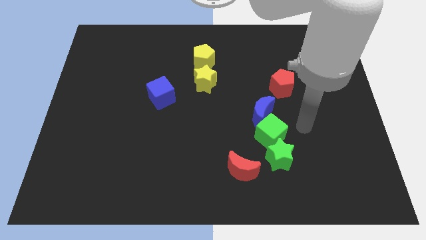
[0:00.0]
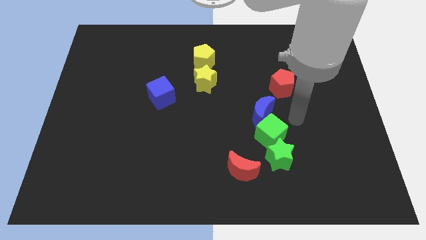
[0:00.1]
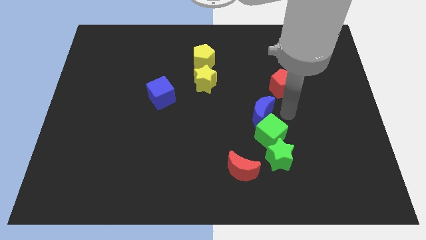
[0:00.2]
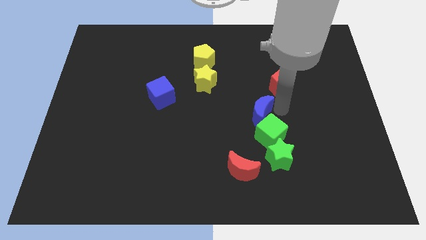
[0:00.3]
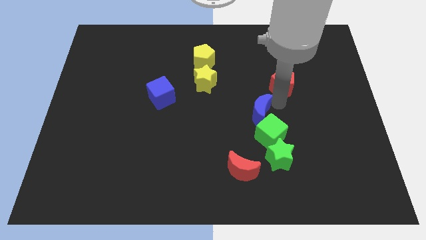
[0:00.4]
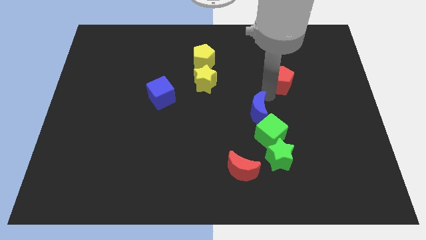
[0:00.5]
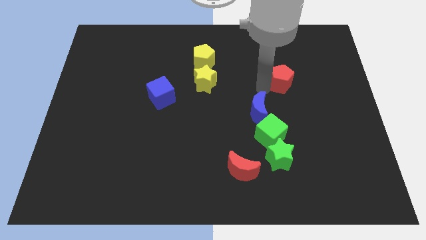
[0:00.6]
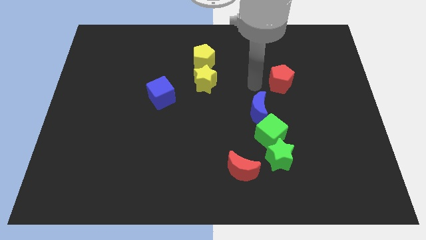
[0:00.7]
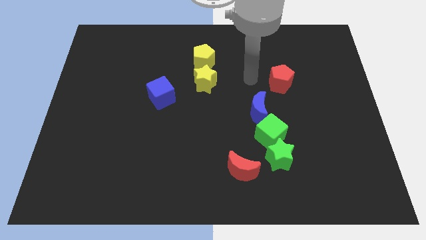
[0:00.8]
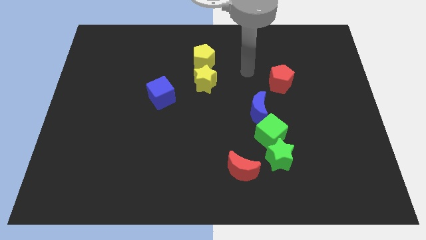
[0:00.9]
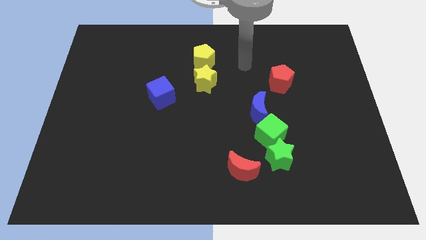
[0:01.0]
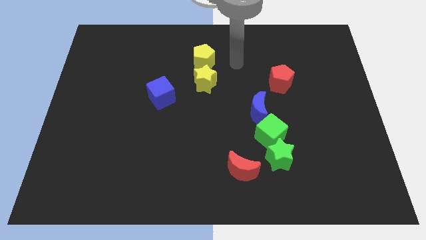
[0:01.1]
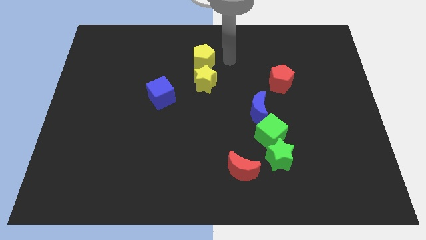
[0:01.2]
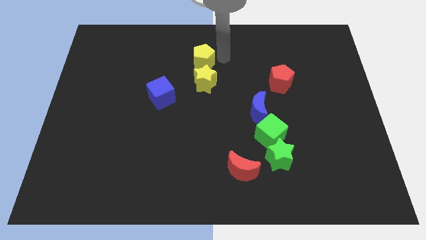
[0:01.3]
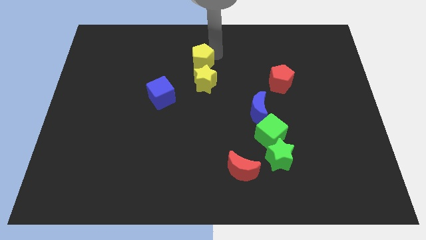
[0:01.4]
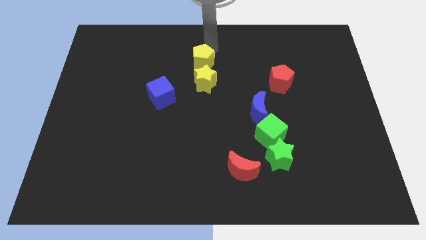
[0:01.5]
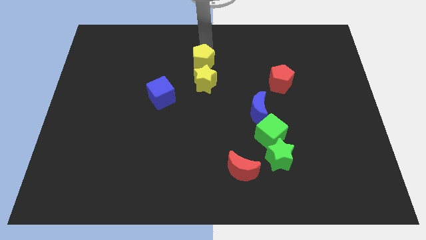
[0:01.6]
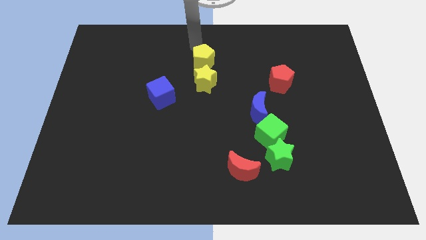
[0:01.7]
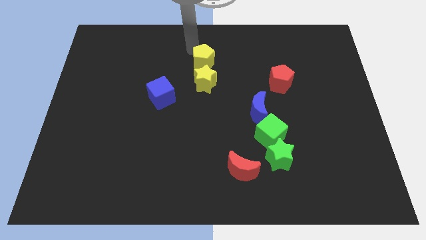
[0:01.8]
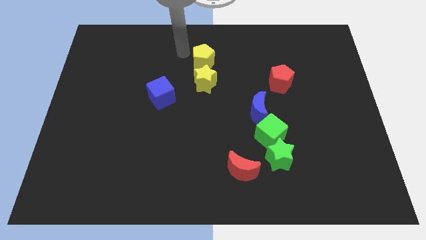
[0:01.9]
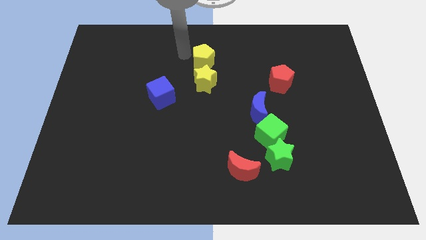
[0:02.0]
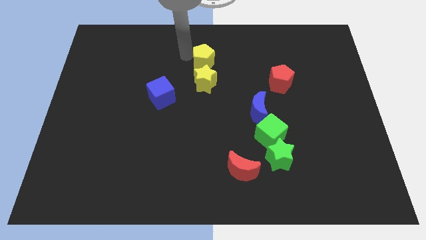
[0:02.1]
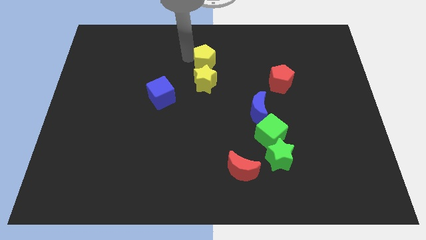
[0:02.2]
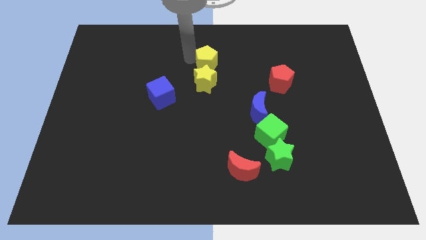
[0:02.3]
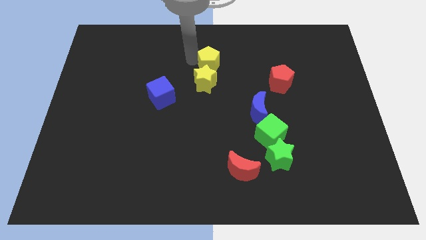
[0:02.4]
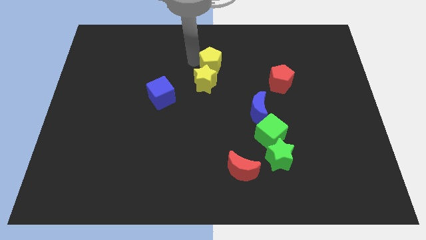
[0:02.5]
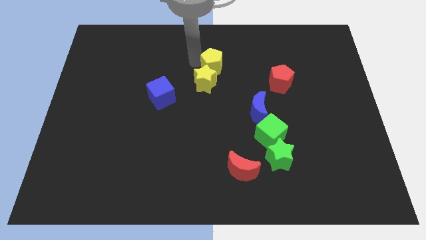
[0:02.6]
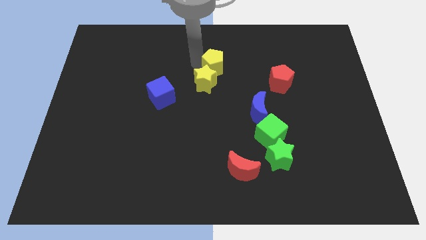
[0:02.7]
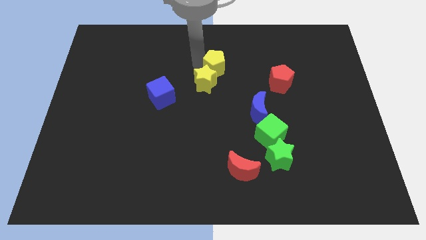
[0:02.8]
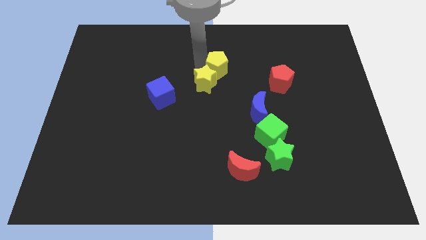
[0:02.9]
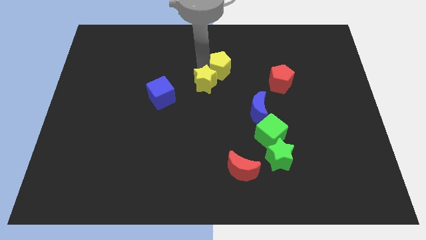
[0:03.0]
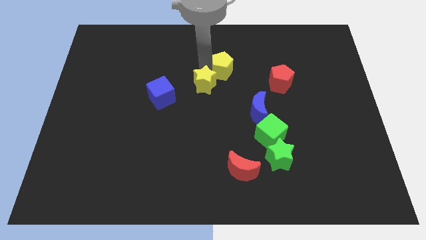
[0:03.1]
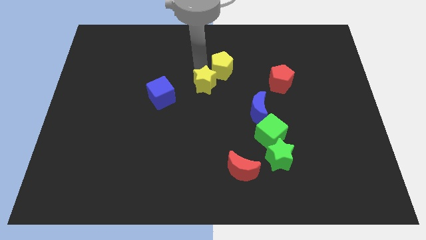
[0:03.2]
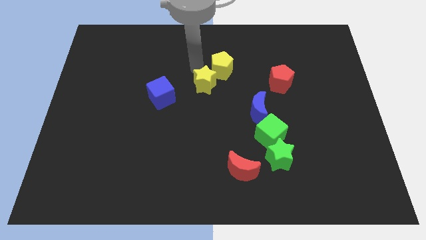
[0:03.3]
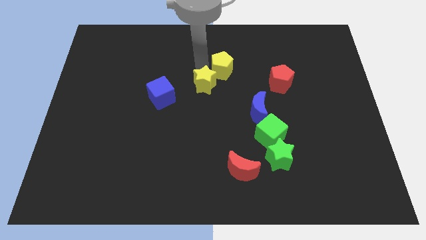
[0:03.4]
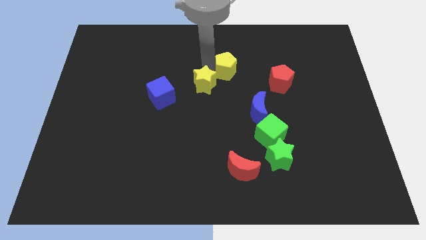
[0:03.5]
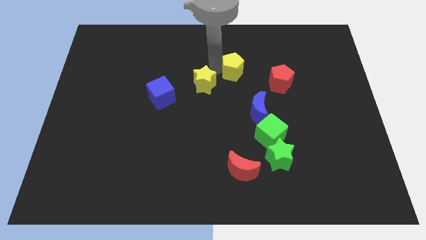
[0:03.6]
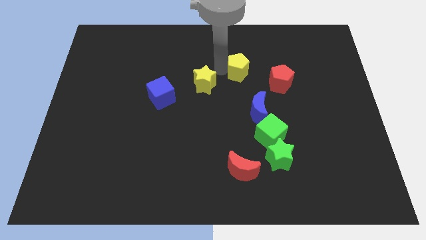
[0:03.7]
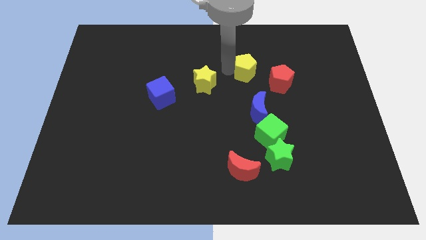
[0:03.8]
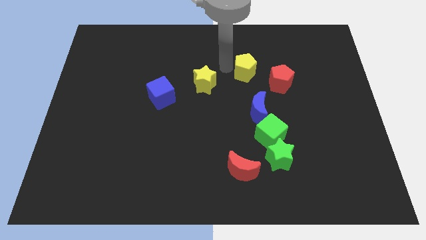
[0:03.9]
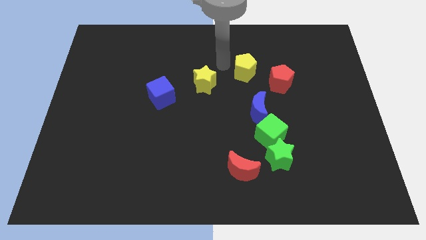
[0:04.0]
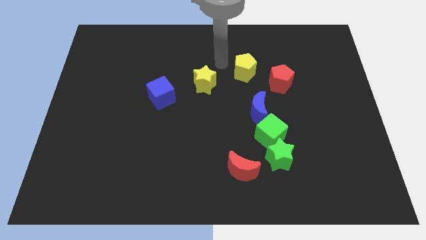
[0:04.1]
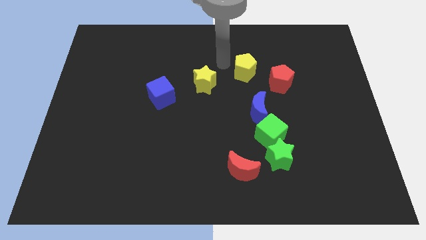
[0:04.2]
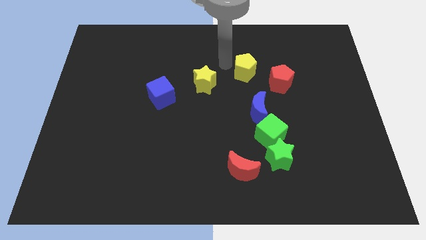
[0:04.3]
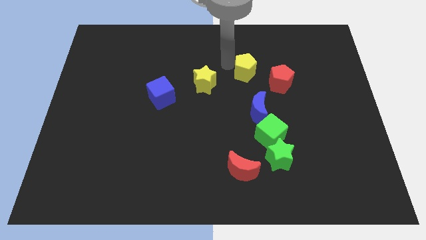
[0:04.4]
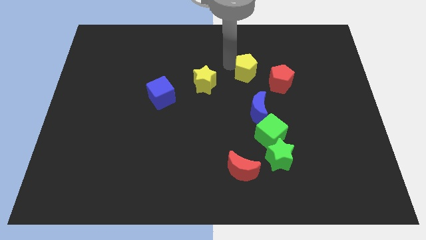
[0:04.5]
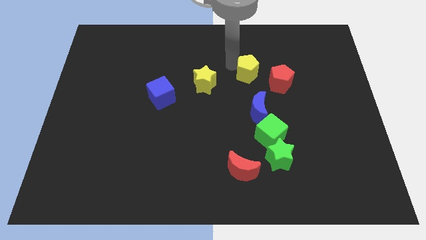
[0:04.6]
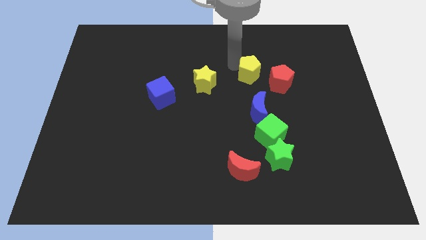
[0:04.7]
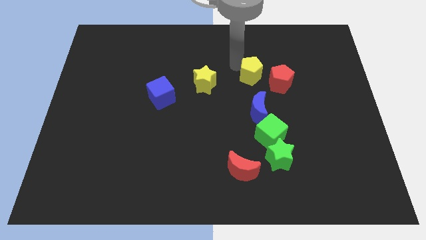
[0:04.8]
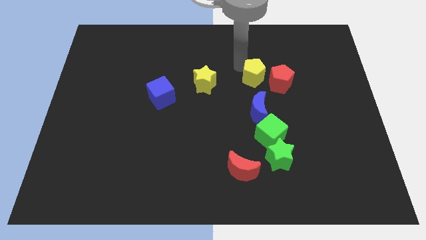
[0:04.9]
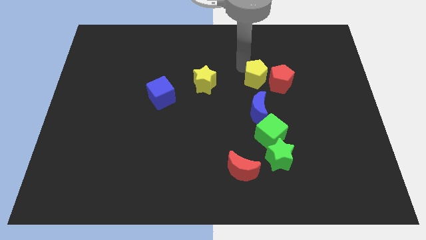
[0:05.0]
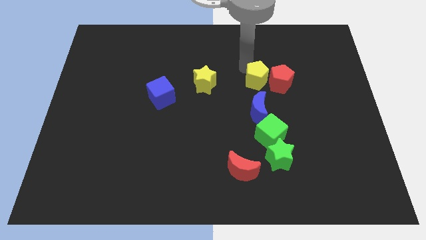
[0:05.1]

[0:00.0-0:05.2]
put the yellow pentagon close to the red pentagon

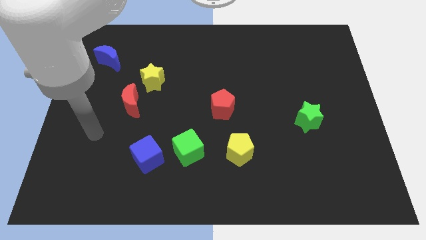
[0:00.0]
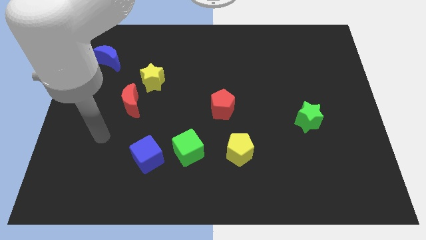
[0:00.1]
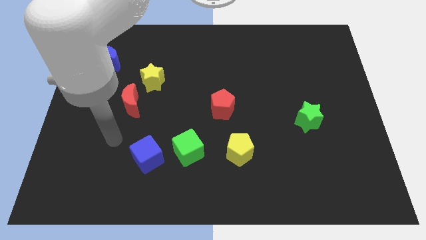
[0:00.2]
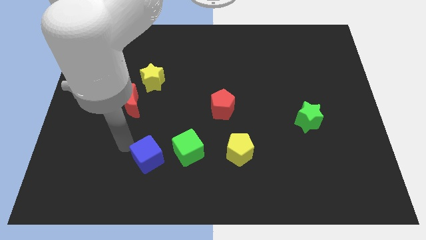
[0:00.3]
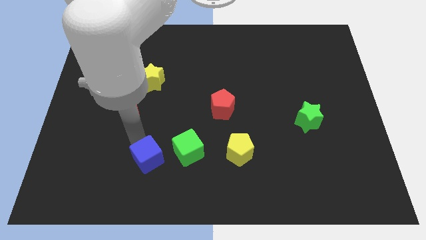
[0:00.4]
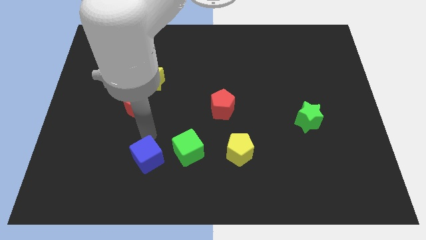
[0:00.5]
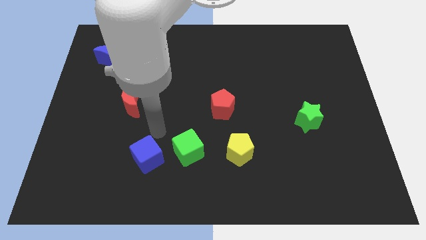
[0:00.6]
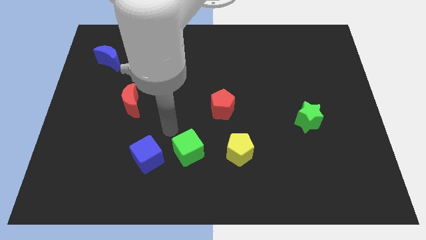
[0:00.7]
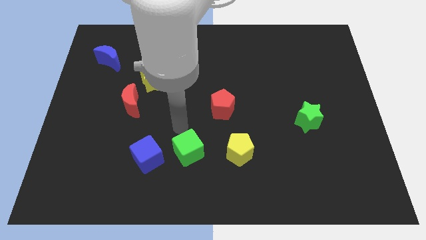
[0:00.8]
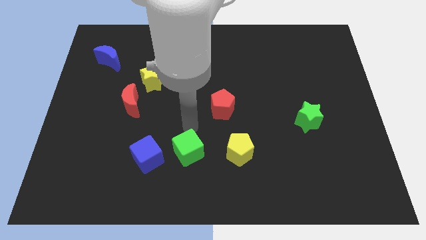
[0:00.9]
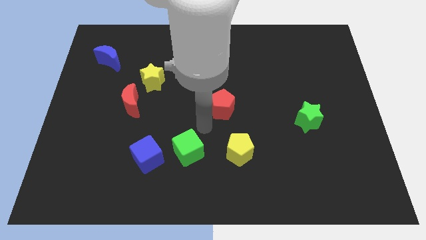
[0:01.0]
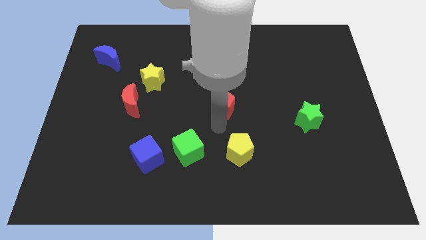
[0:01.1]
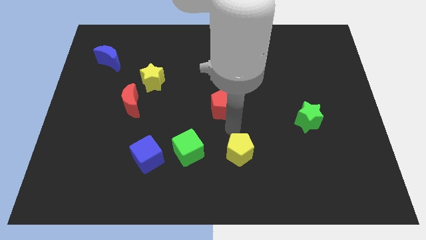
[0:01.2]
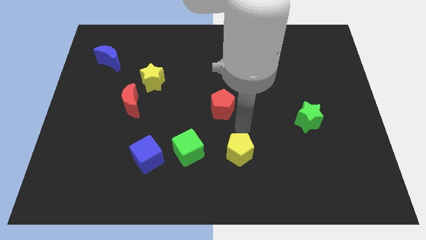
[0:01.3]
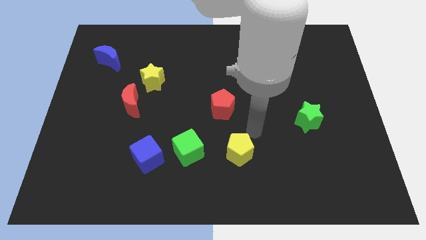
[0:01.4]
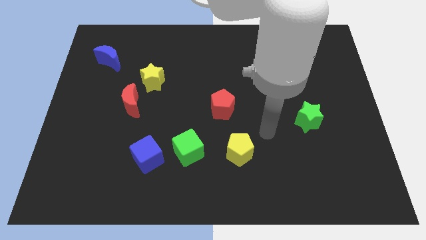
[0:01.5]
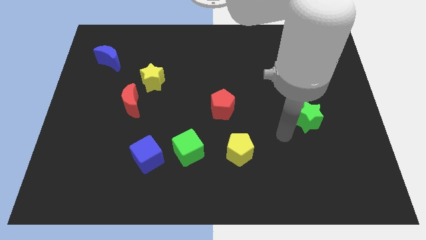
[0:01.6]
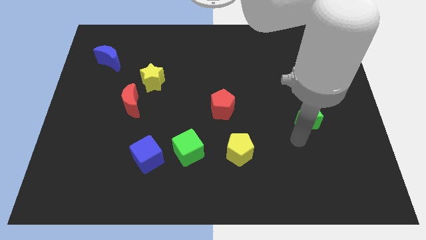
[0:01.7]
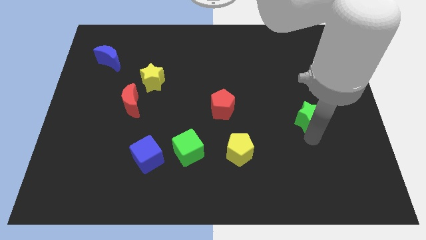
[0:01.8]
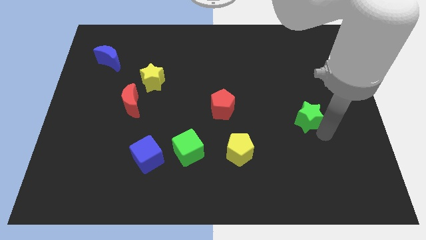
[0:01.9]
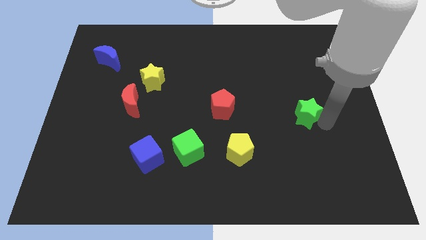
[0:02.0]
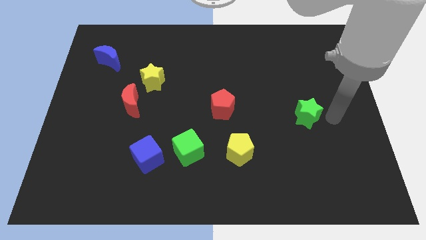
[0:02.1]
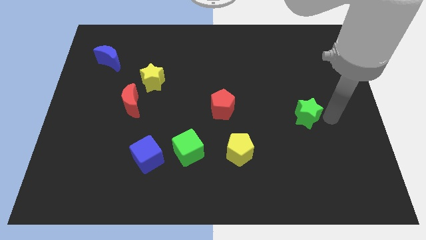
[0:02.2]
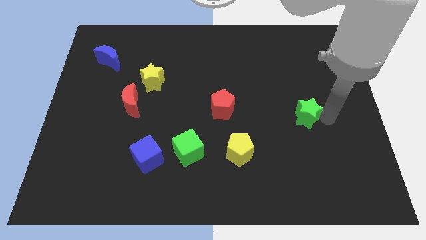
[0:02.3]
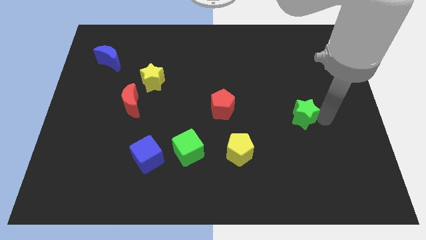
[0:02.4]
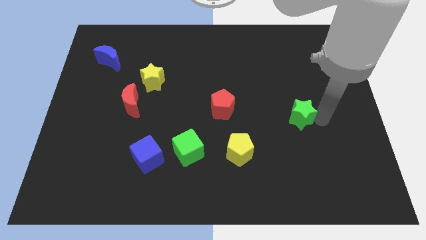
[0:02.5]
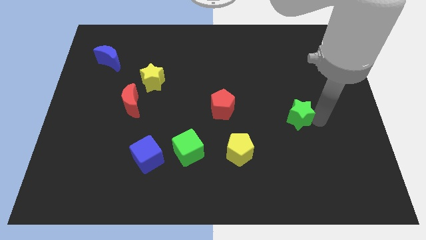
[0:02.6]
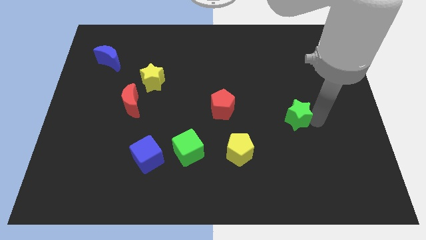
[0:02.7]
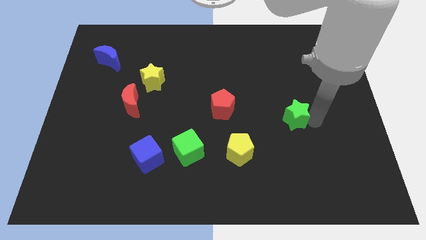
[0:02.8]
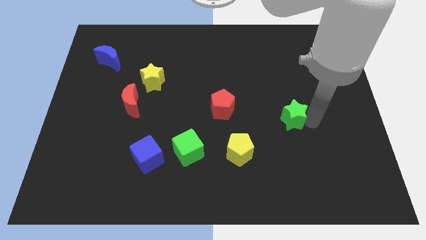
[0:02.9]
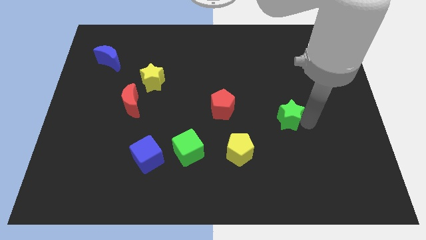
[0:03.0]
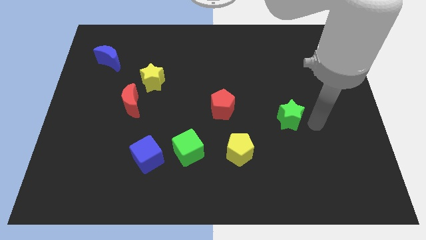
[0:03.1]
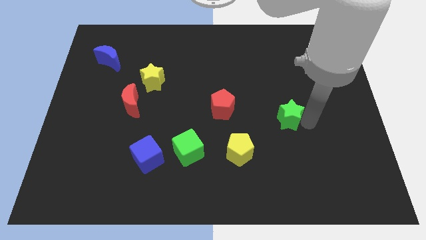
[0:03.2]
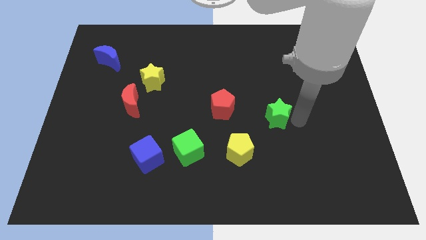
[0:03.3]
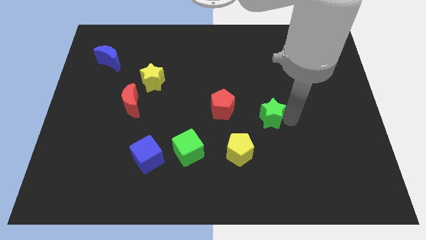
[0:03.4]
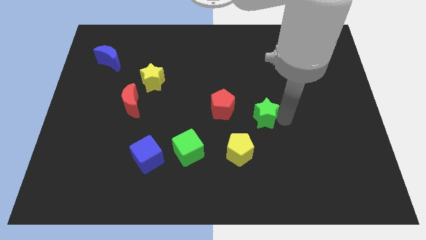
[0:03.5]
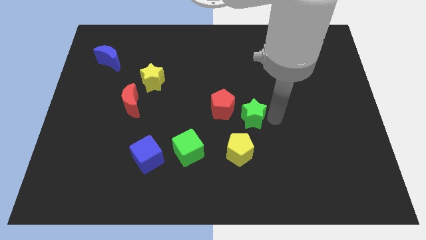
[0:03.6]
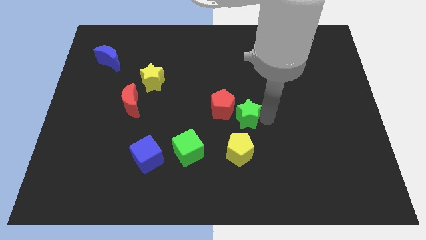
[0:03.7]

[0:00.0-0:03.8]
put the green star towards the red pentagon
